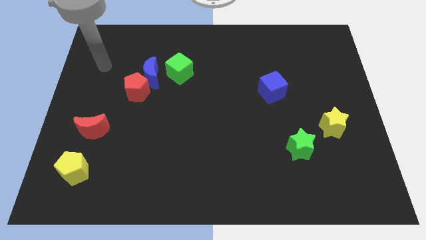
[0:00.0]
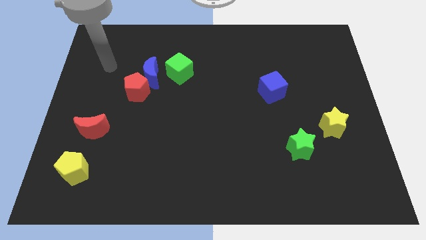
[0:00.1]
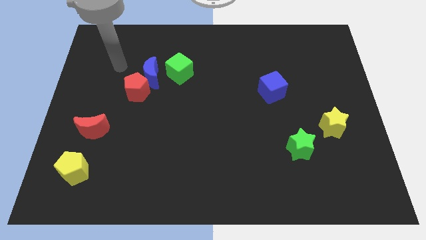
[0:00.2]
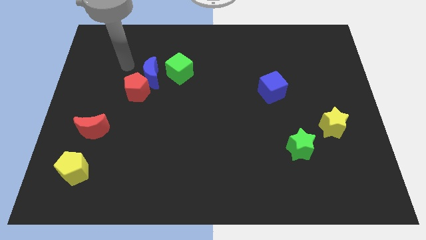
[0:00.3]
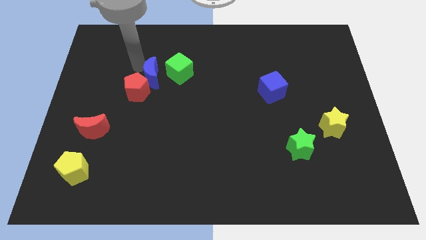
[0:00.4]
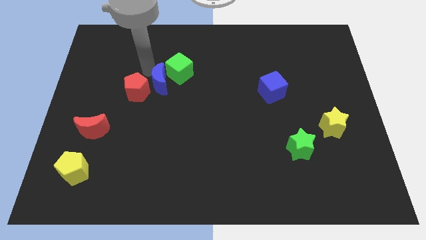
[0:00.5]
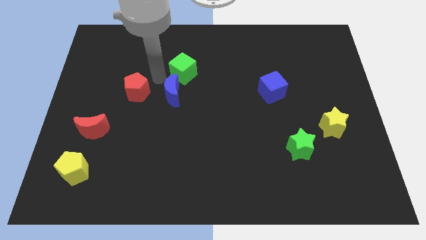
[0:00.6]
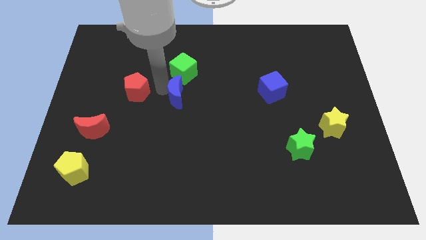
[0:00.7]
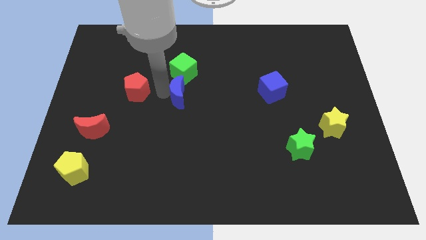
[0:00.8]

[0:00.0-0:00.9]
pull the red pentagon apart from the blue moon

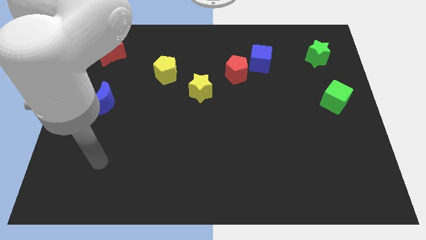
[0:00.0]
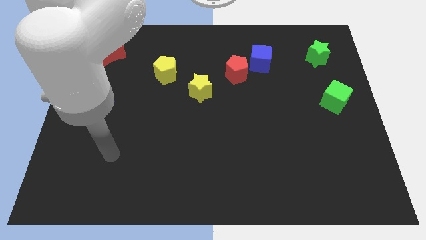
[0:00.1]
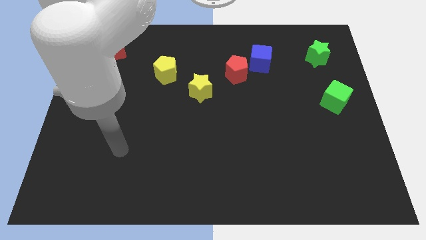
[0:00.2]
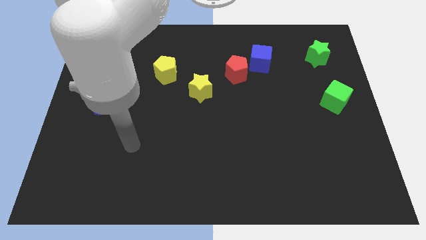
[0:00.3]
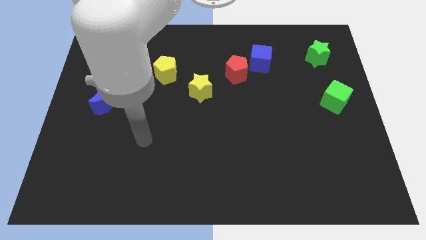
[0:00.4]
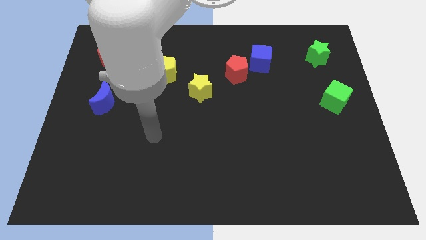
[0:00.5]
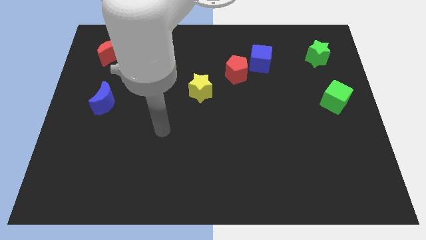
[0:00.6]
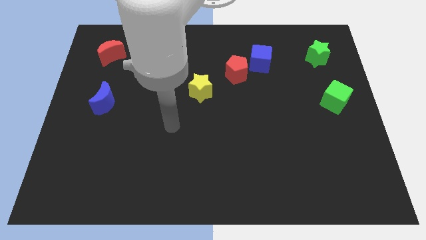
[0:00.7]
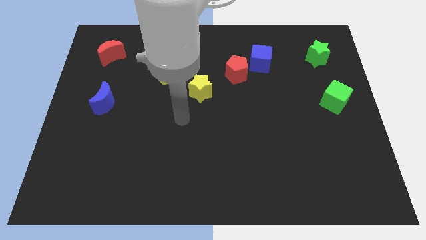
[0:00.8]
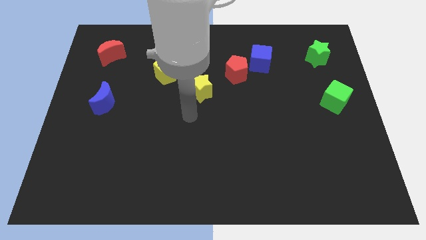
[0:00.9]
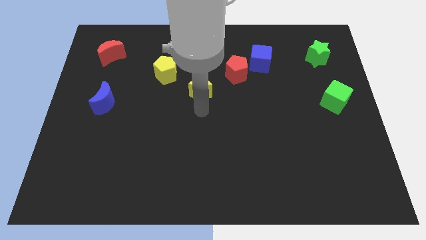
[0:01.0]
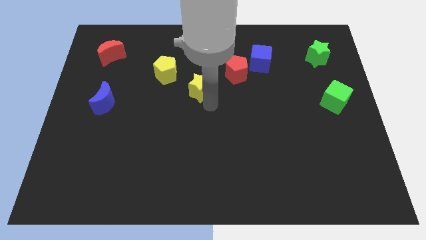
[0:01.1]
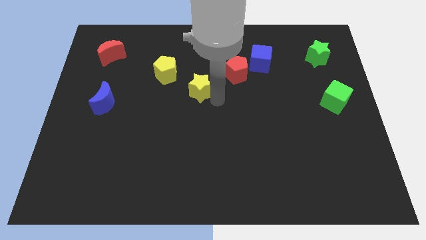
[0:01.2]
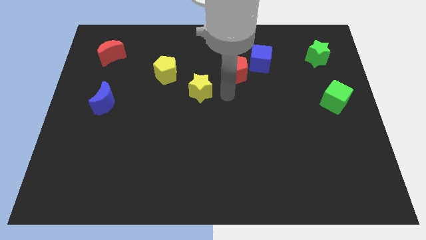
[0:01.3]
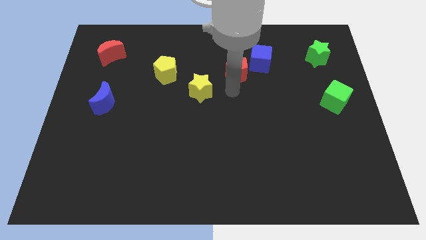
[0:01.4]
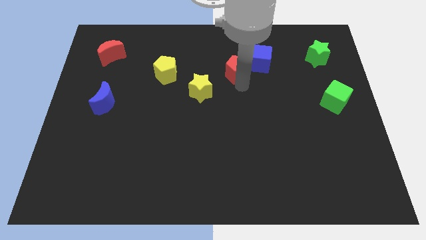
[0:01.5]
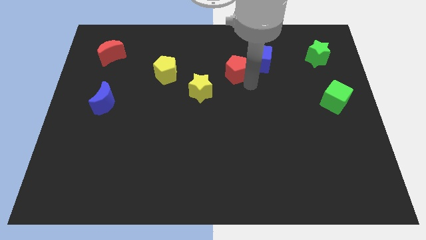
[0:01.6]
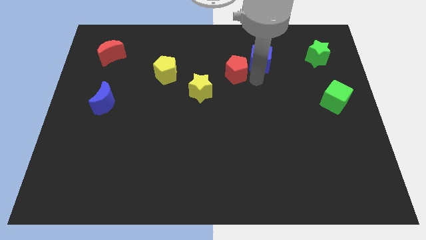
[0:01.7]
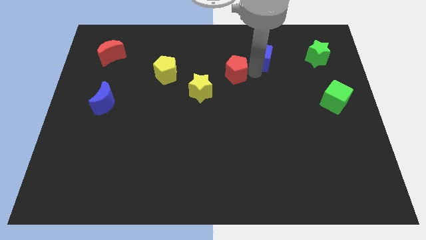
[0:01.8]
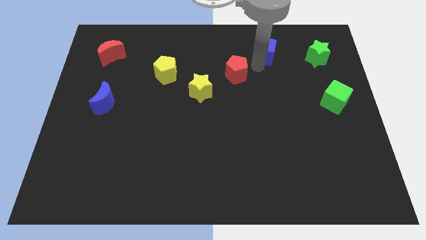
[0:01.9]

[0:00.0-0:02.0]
move the red pentagon away from the blue cube

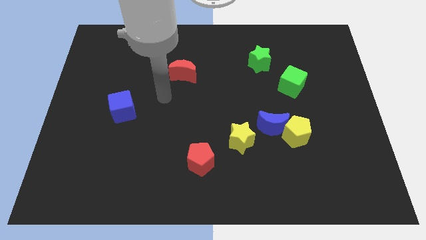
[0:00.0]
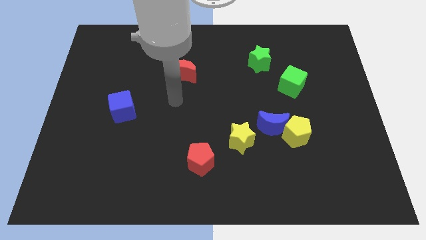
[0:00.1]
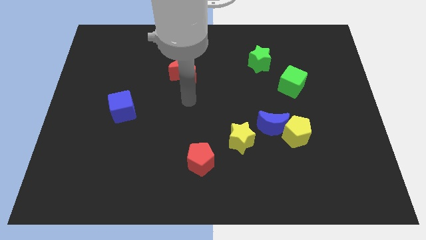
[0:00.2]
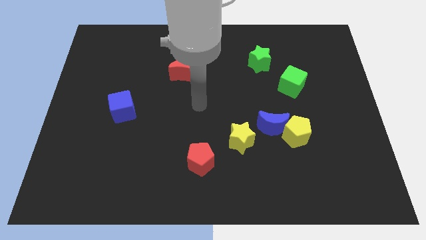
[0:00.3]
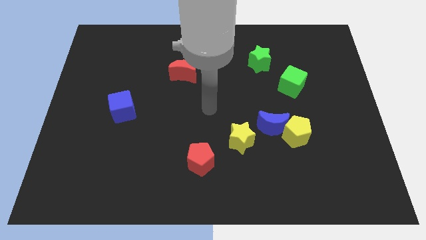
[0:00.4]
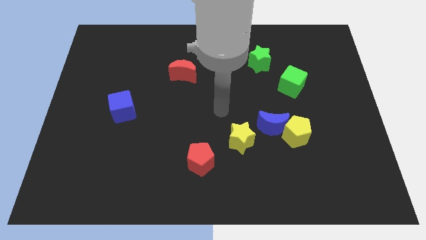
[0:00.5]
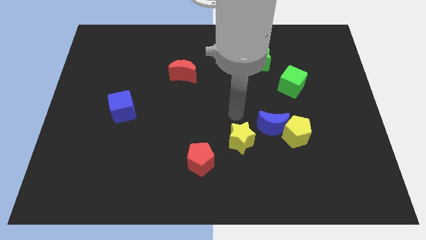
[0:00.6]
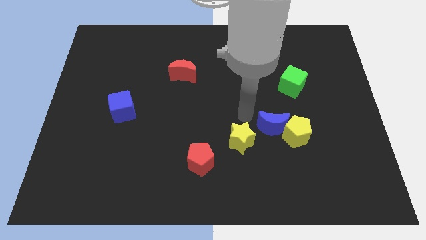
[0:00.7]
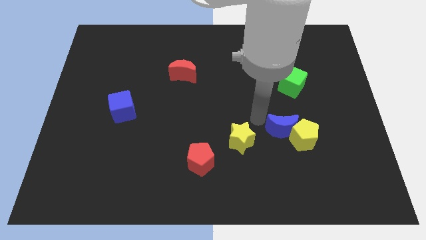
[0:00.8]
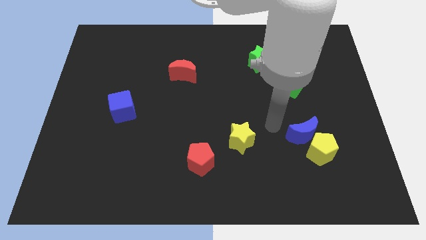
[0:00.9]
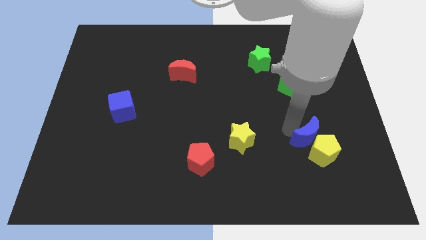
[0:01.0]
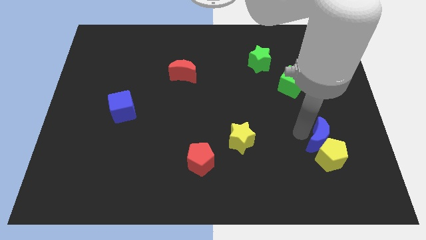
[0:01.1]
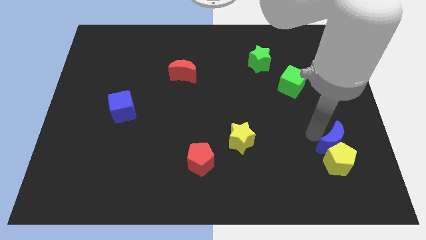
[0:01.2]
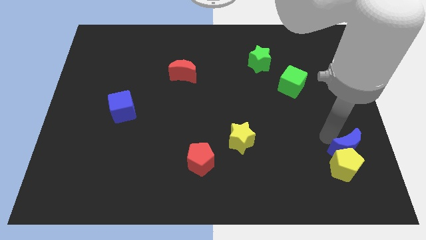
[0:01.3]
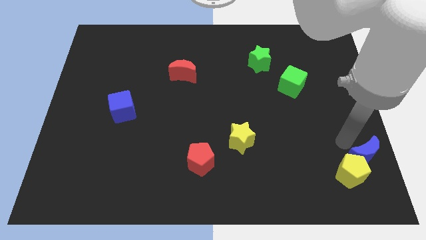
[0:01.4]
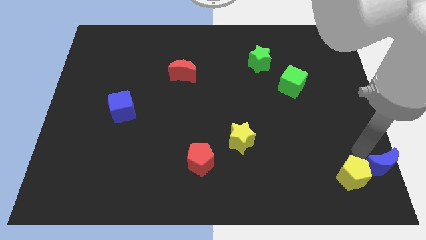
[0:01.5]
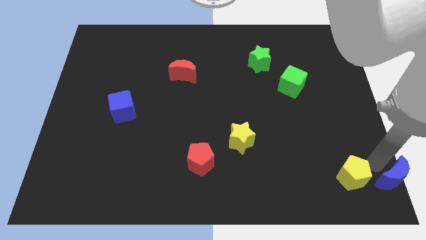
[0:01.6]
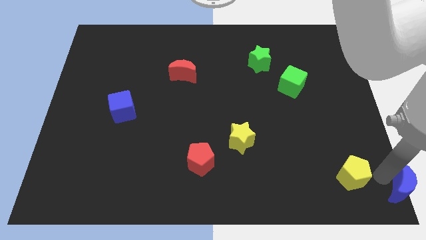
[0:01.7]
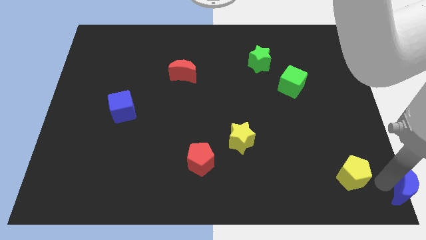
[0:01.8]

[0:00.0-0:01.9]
pull the yellow pentagon apart from the blue moon

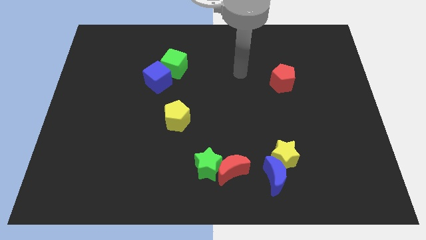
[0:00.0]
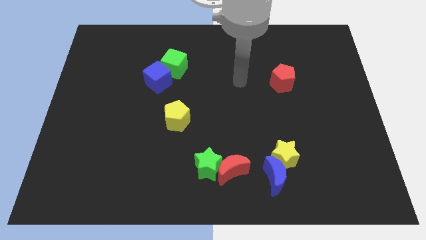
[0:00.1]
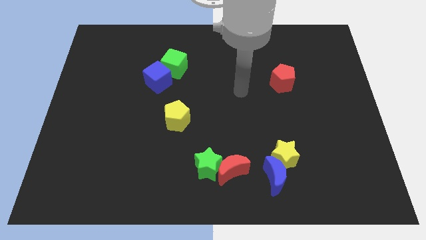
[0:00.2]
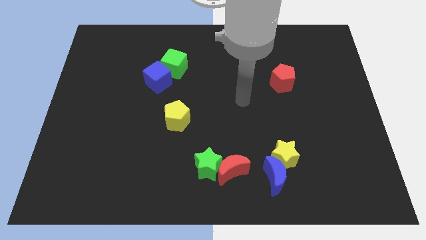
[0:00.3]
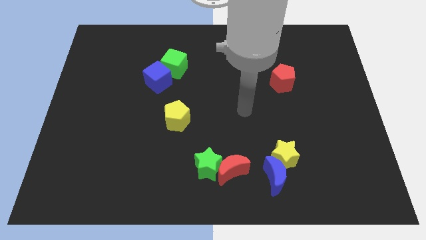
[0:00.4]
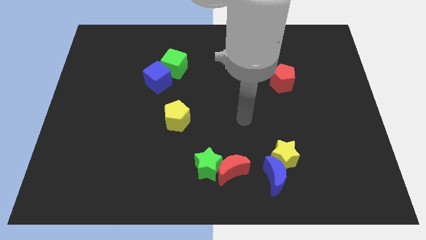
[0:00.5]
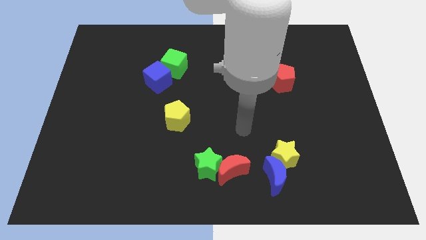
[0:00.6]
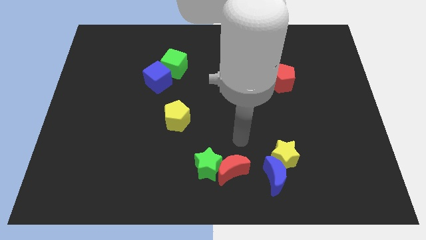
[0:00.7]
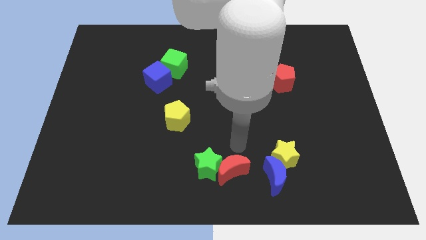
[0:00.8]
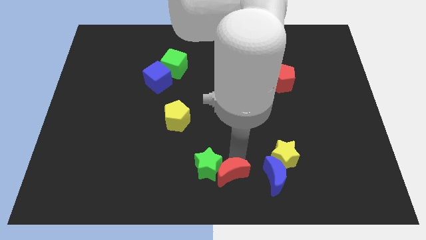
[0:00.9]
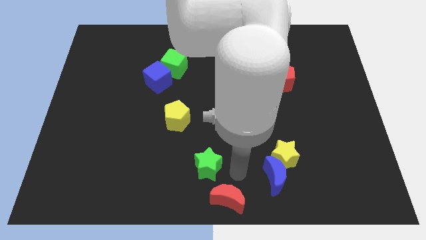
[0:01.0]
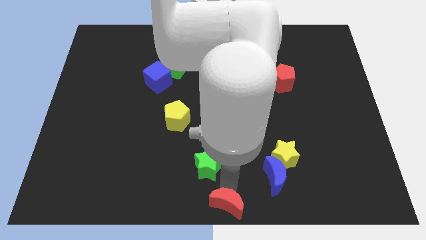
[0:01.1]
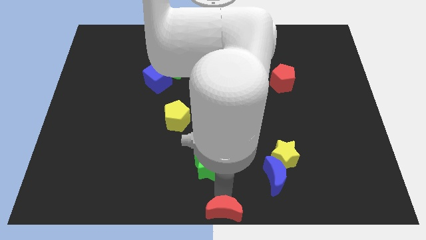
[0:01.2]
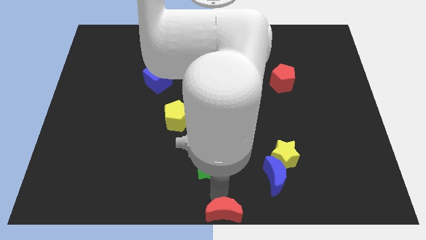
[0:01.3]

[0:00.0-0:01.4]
move the green star away from the red moon

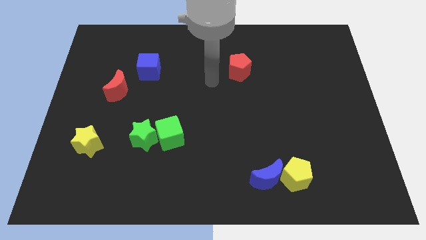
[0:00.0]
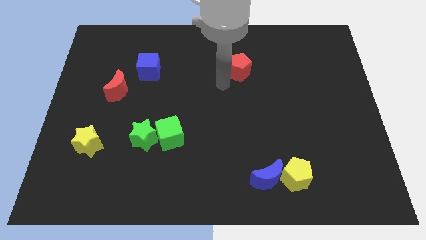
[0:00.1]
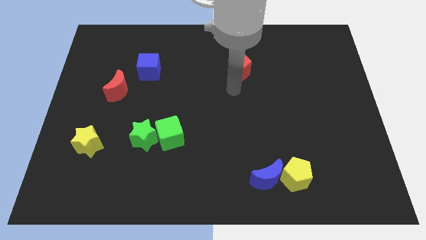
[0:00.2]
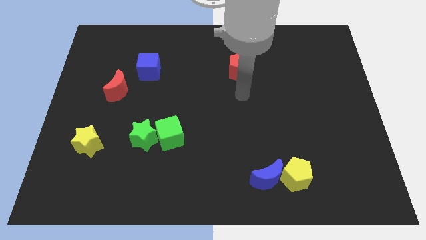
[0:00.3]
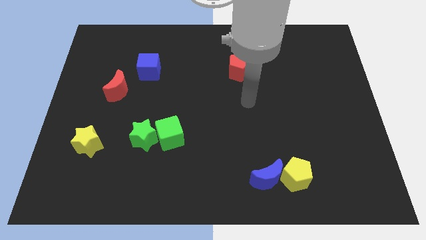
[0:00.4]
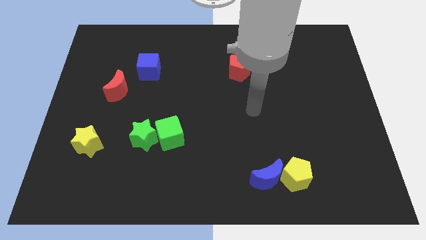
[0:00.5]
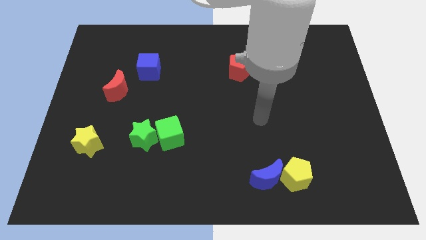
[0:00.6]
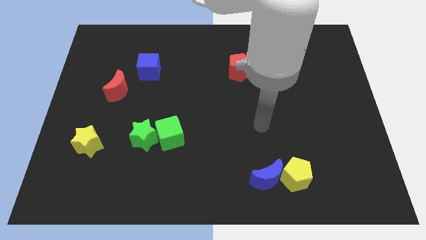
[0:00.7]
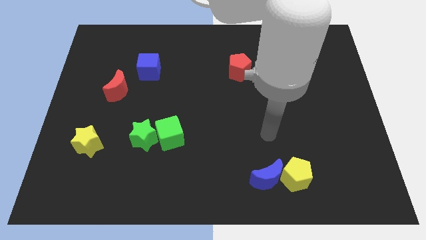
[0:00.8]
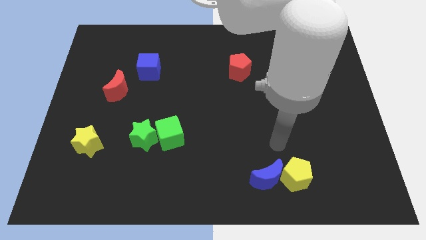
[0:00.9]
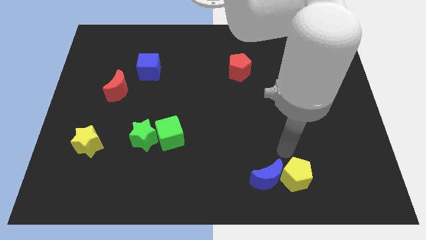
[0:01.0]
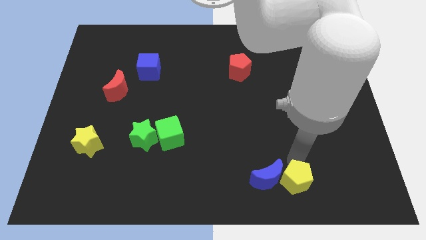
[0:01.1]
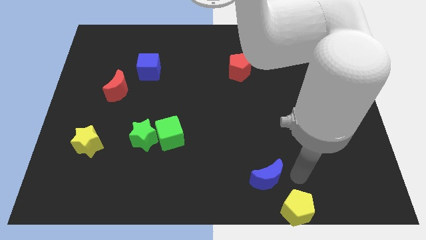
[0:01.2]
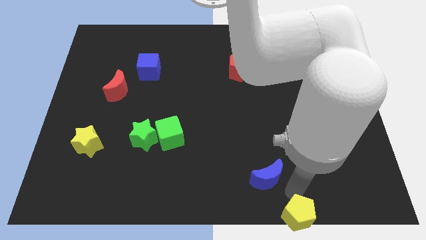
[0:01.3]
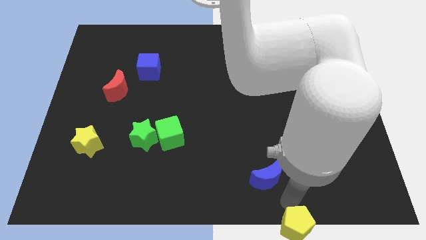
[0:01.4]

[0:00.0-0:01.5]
separate the blue moon from the yellow pentagon

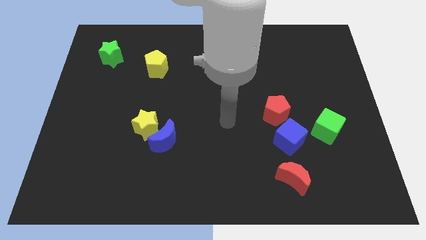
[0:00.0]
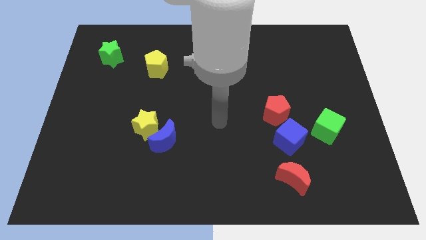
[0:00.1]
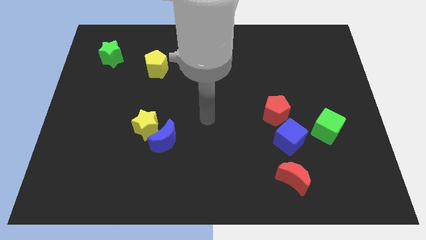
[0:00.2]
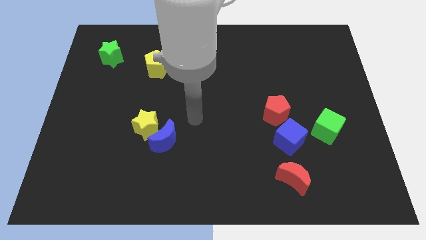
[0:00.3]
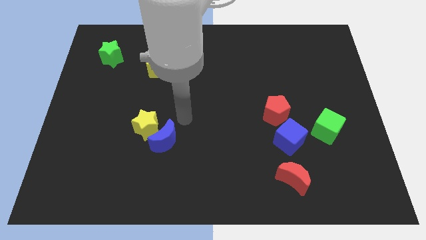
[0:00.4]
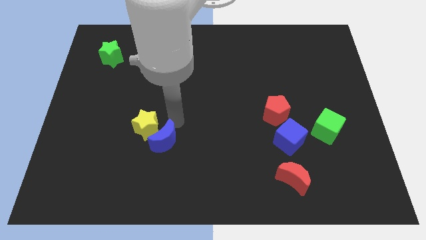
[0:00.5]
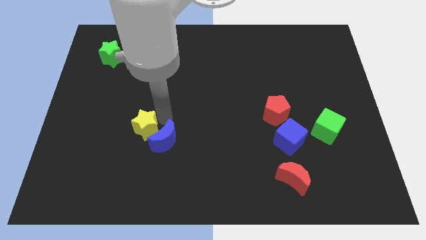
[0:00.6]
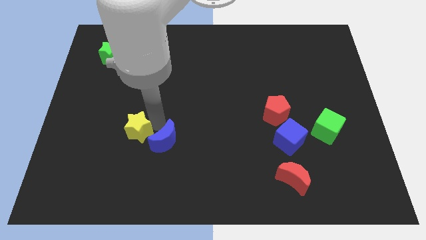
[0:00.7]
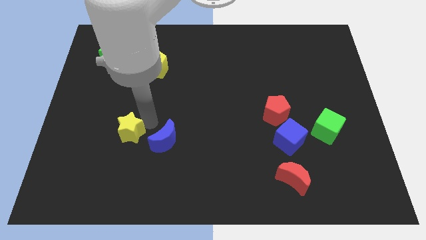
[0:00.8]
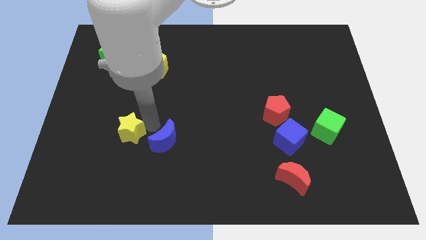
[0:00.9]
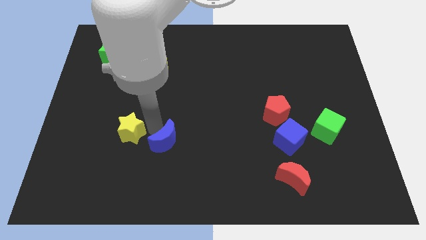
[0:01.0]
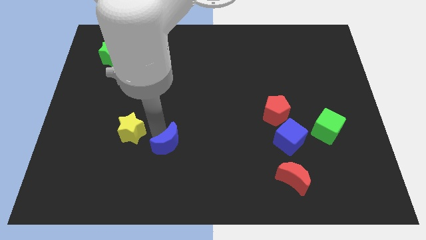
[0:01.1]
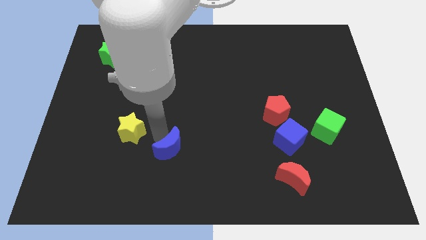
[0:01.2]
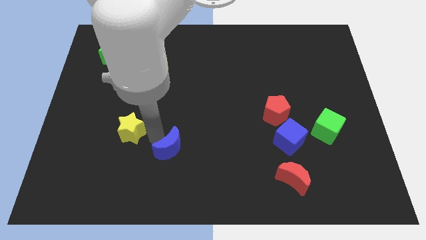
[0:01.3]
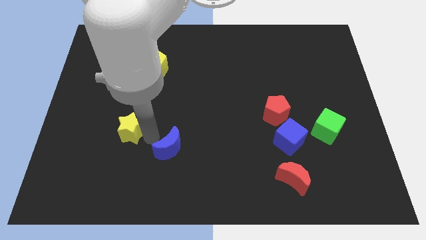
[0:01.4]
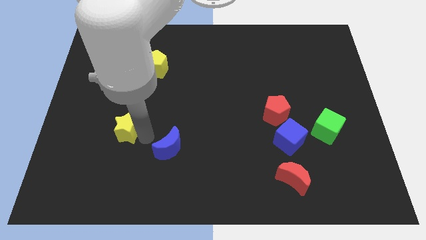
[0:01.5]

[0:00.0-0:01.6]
pull the blue moon apart from the yellow star
